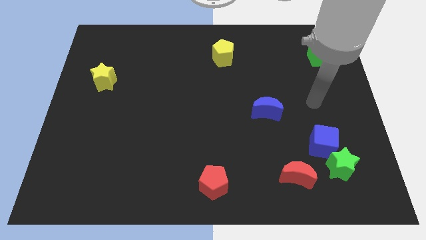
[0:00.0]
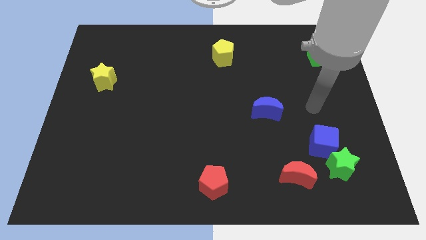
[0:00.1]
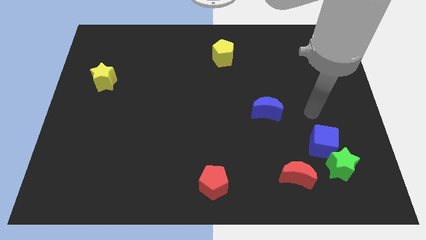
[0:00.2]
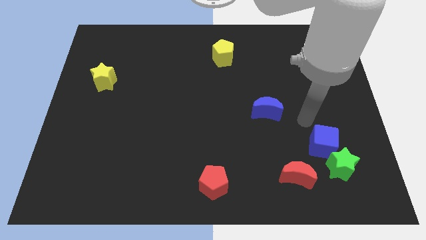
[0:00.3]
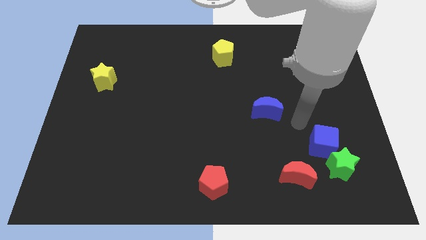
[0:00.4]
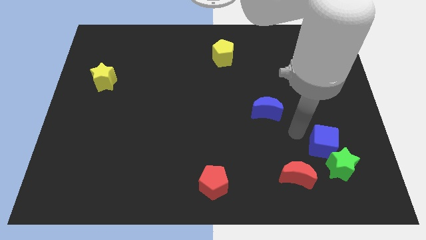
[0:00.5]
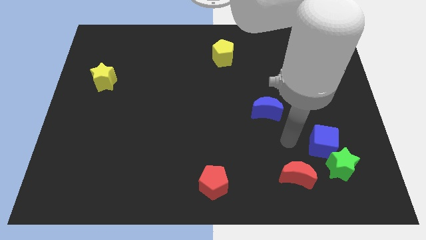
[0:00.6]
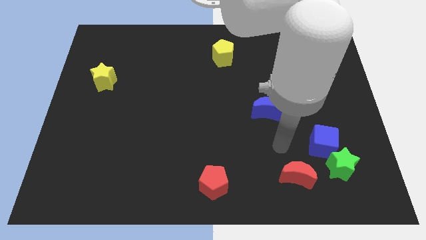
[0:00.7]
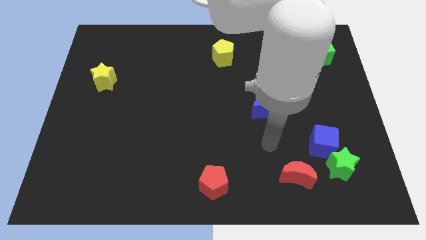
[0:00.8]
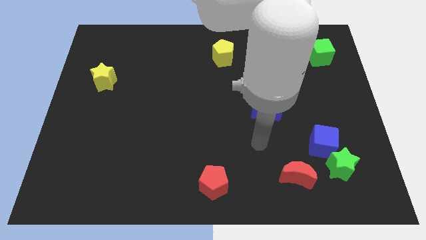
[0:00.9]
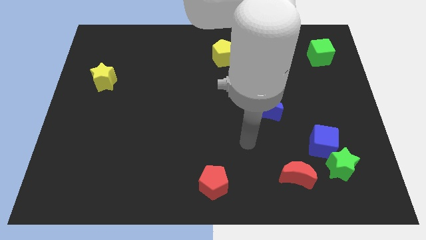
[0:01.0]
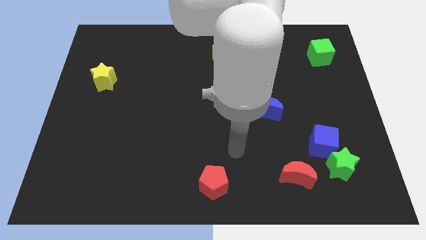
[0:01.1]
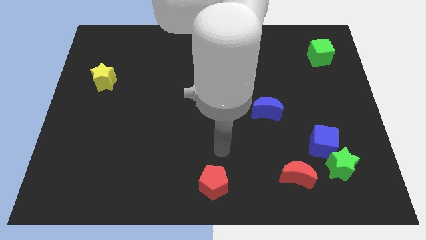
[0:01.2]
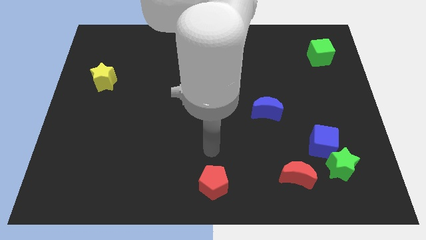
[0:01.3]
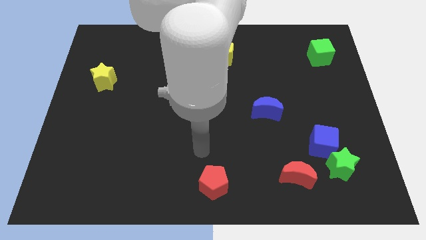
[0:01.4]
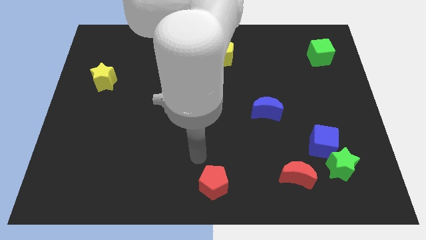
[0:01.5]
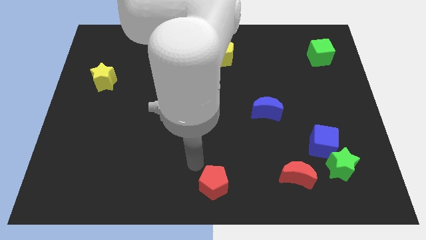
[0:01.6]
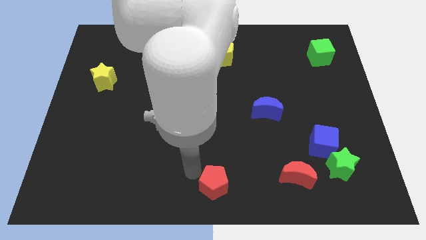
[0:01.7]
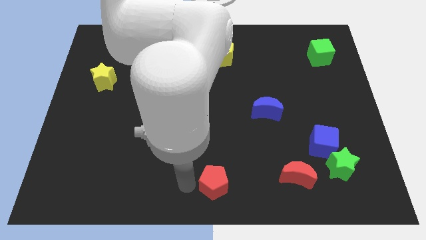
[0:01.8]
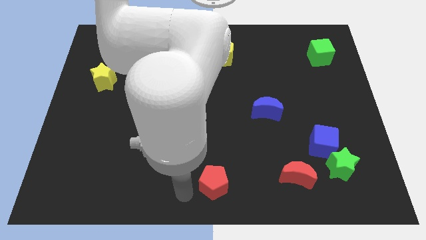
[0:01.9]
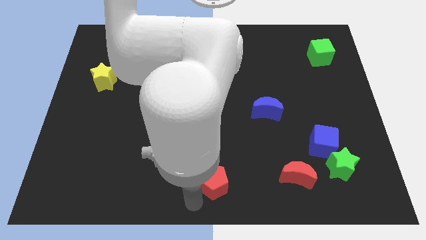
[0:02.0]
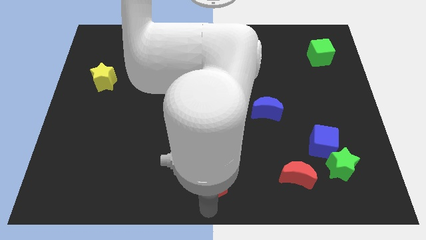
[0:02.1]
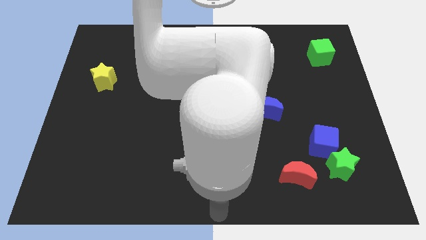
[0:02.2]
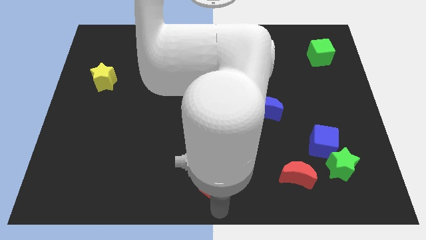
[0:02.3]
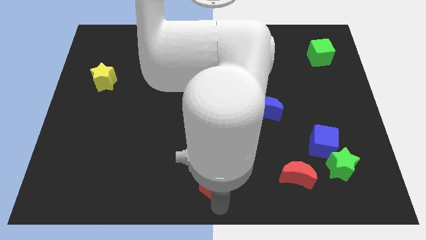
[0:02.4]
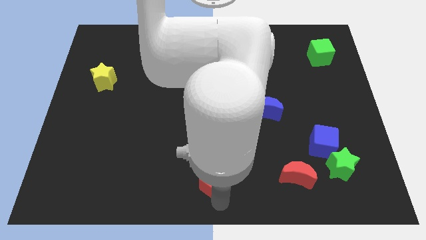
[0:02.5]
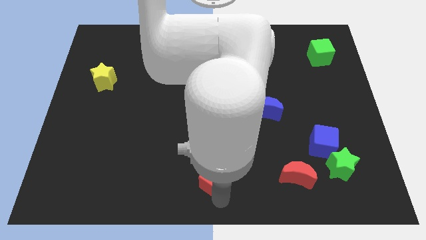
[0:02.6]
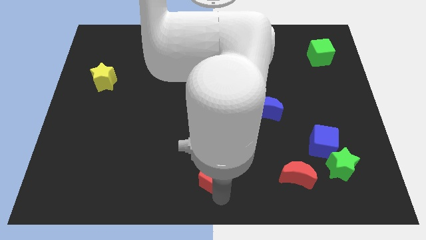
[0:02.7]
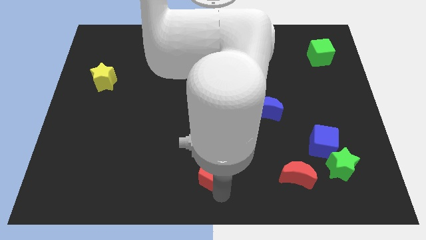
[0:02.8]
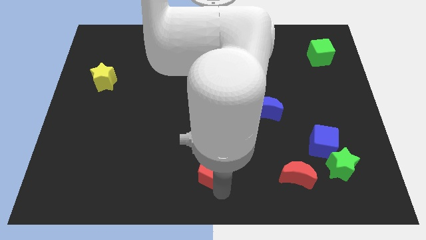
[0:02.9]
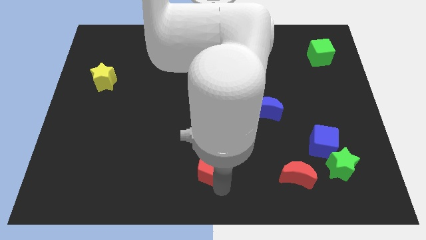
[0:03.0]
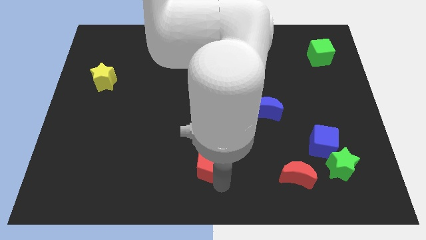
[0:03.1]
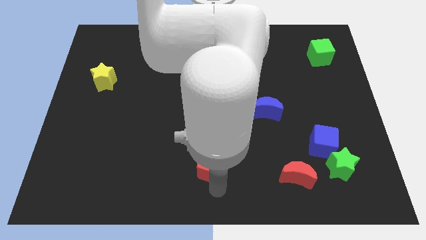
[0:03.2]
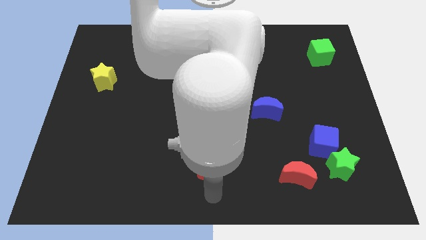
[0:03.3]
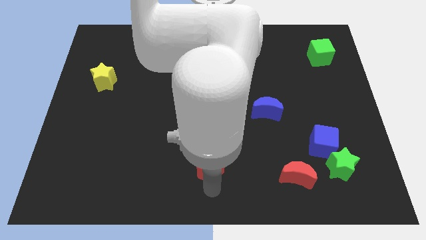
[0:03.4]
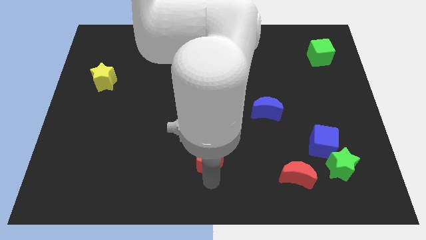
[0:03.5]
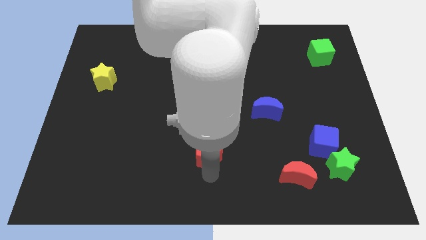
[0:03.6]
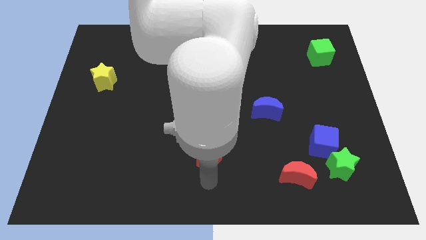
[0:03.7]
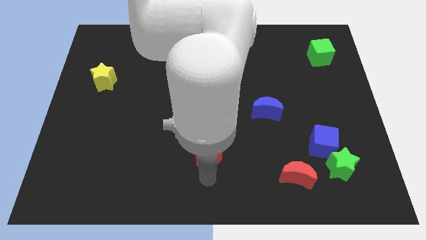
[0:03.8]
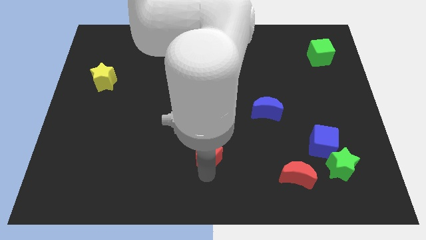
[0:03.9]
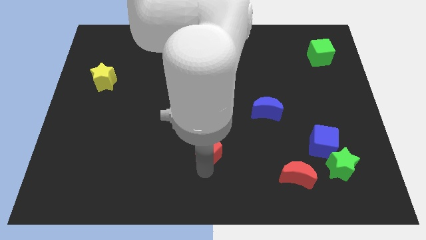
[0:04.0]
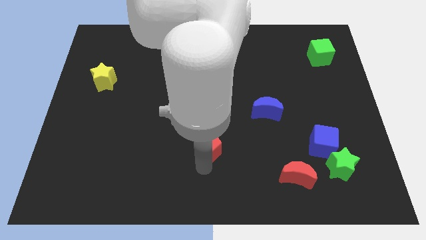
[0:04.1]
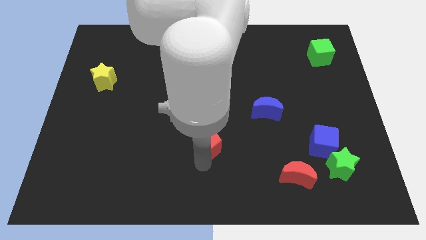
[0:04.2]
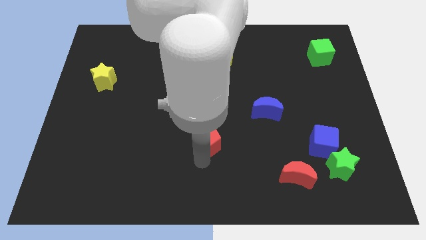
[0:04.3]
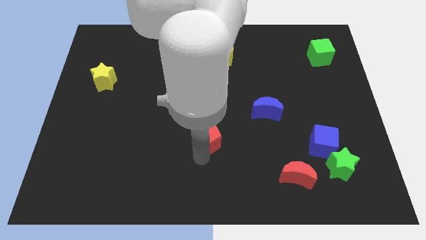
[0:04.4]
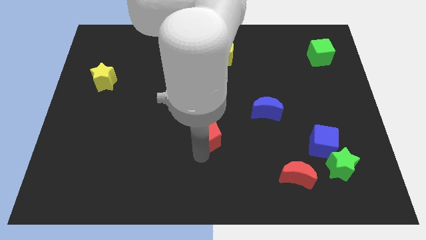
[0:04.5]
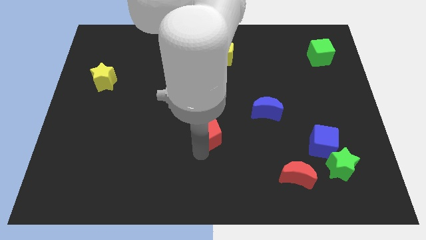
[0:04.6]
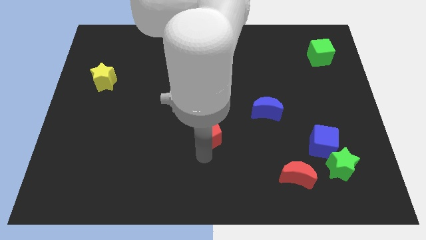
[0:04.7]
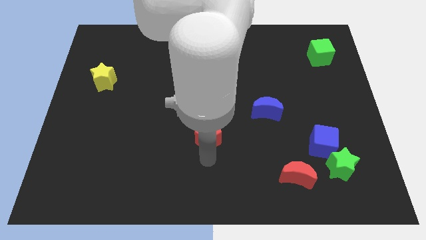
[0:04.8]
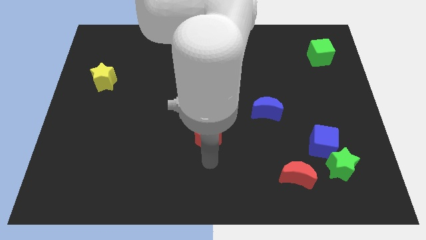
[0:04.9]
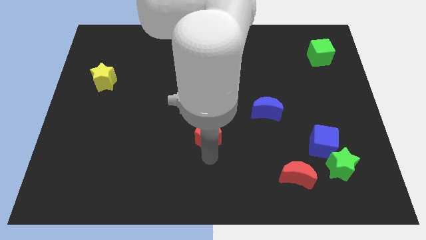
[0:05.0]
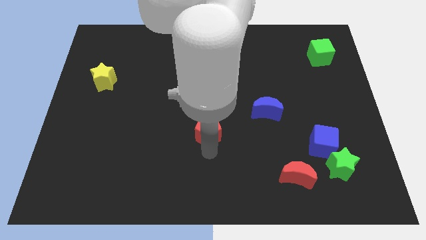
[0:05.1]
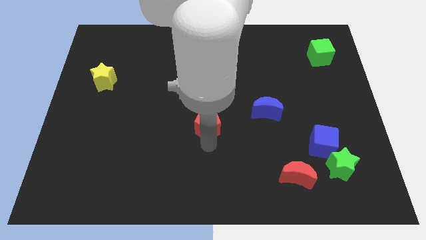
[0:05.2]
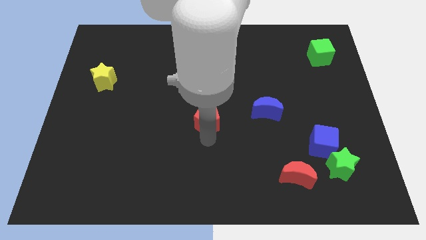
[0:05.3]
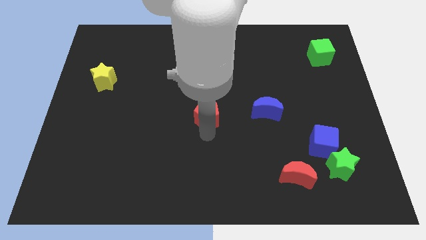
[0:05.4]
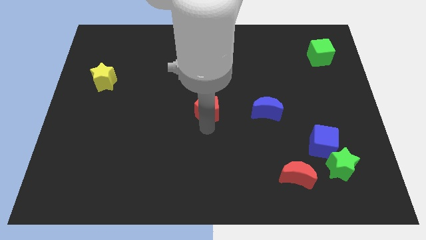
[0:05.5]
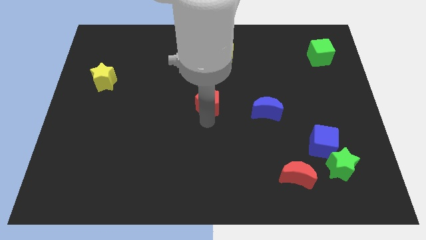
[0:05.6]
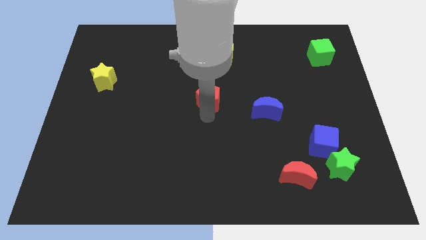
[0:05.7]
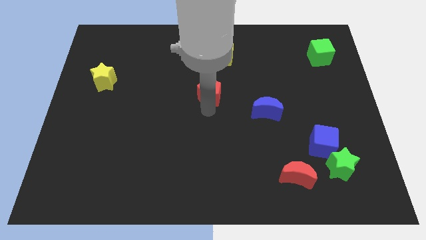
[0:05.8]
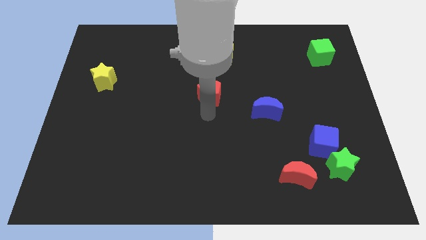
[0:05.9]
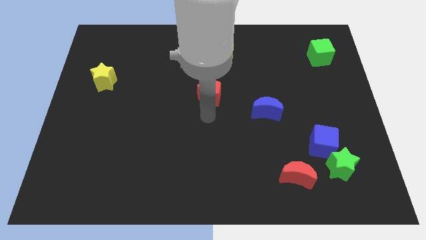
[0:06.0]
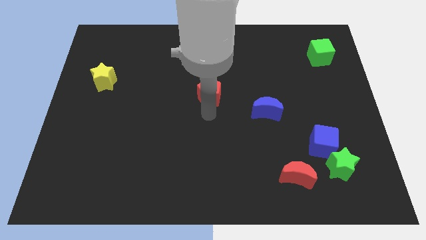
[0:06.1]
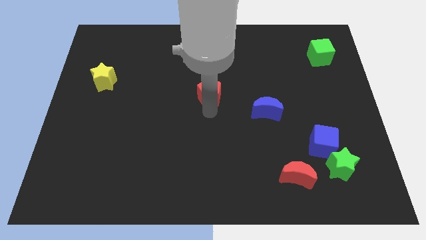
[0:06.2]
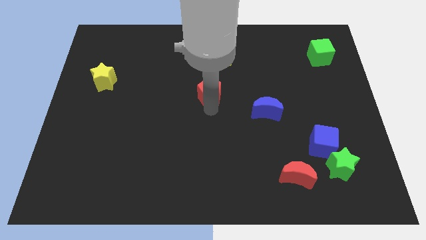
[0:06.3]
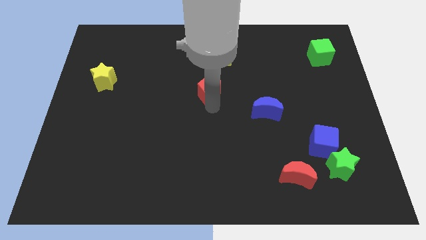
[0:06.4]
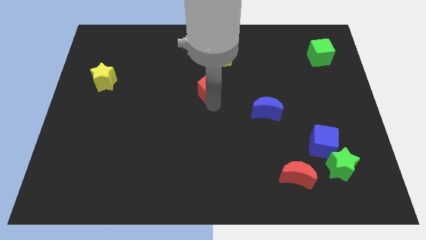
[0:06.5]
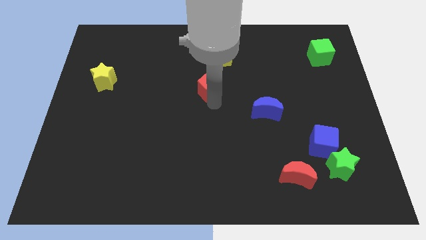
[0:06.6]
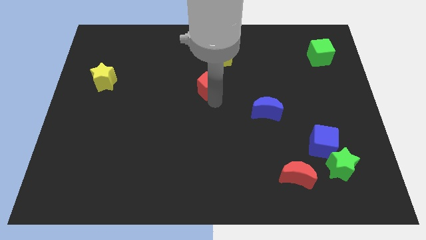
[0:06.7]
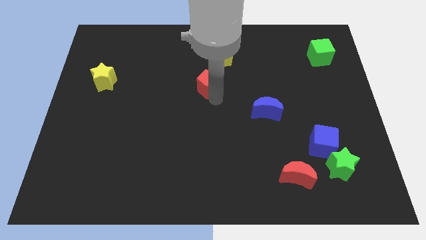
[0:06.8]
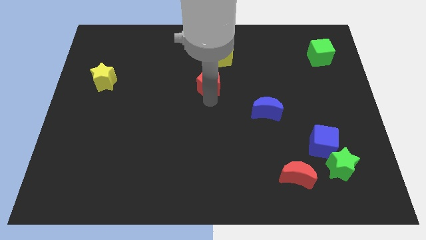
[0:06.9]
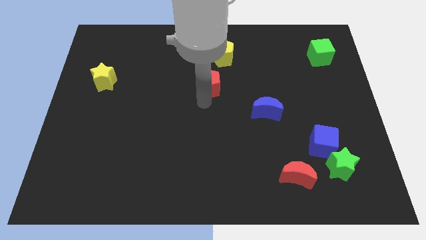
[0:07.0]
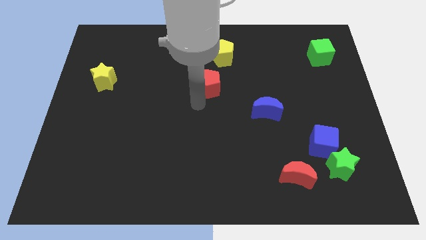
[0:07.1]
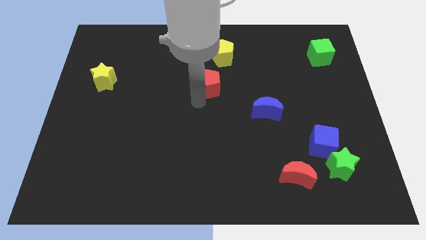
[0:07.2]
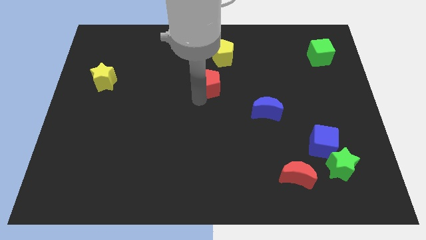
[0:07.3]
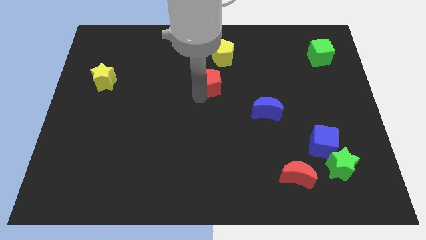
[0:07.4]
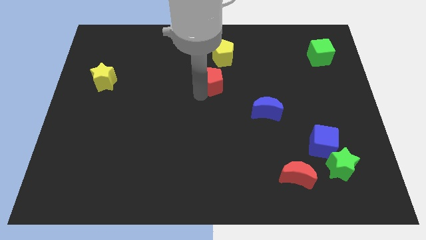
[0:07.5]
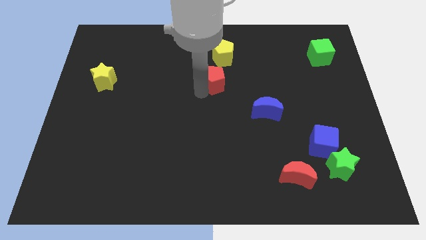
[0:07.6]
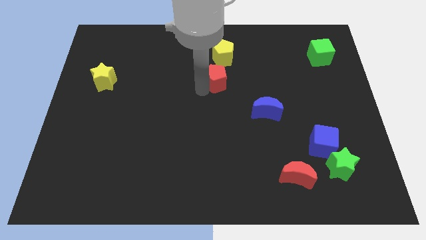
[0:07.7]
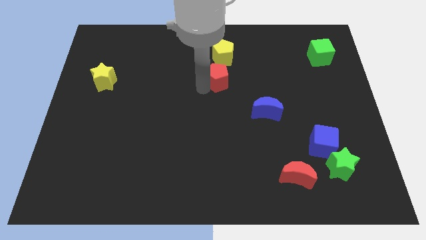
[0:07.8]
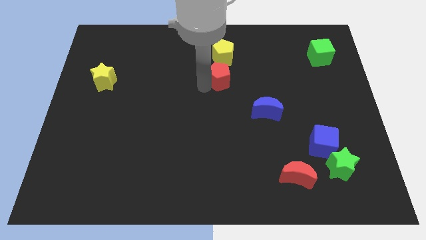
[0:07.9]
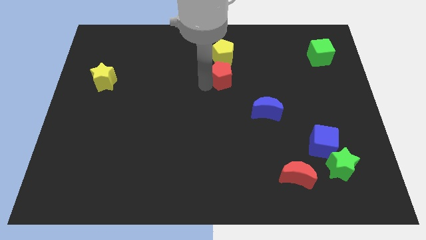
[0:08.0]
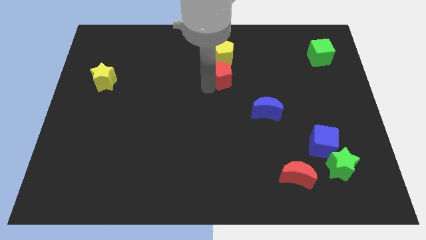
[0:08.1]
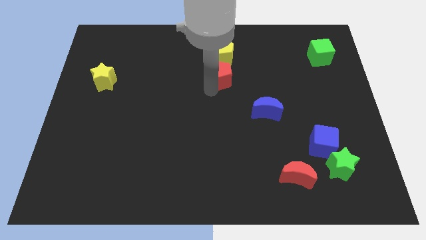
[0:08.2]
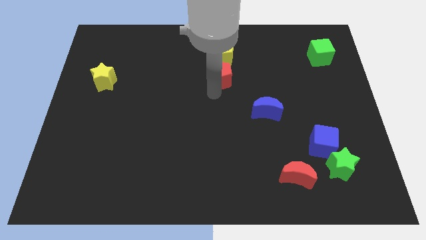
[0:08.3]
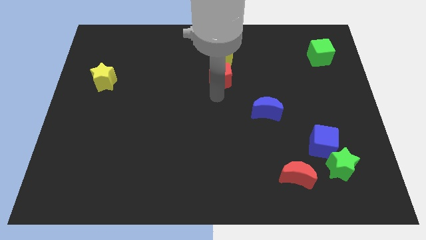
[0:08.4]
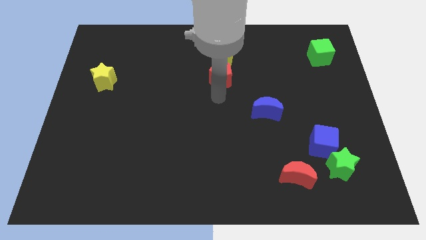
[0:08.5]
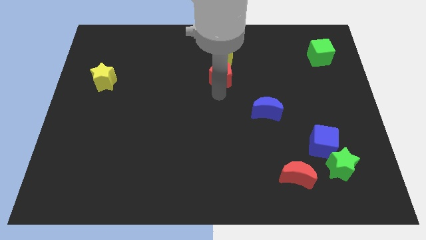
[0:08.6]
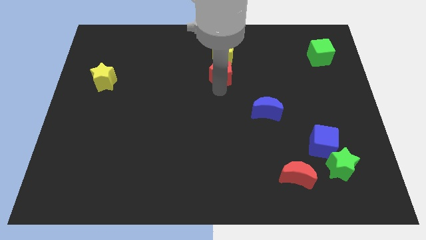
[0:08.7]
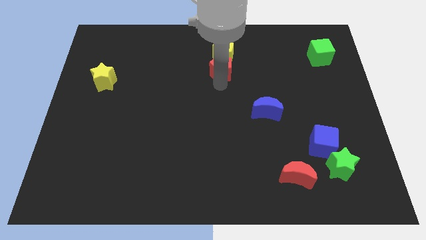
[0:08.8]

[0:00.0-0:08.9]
move the red pentagon close to the yellow pentagon
